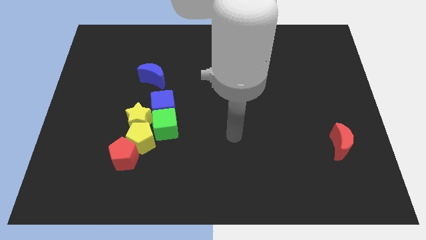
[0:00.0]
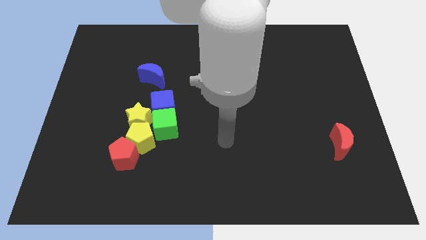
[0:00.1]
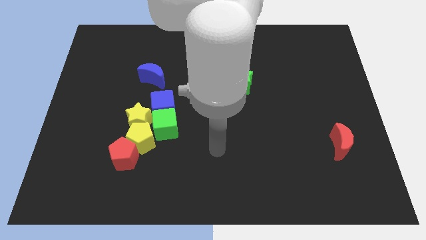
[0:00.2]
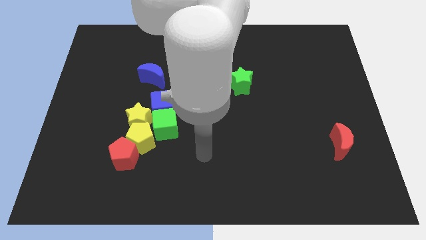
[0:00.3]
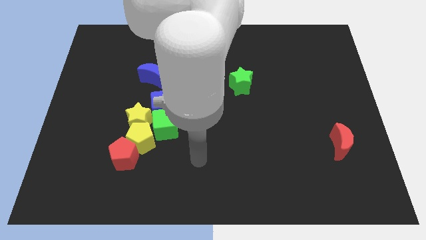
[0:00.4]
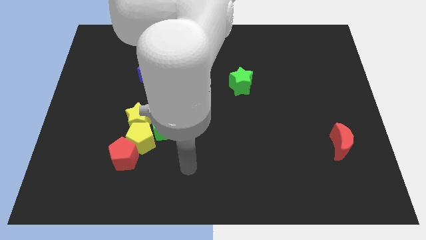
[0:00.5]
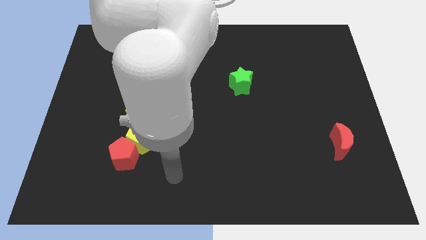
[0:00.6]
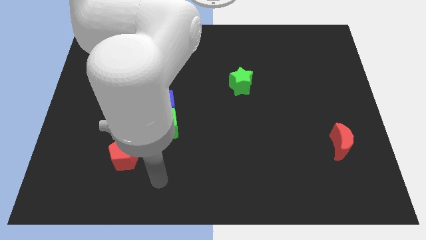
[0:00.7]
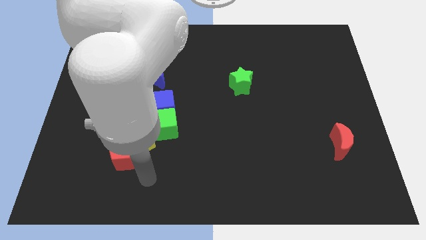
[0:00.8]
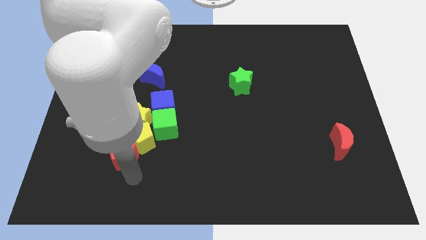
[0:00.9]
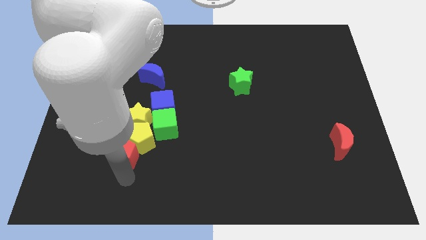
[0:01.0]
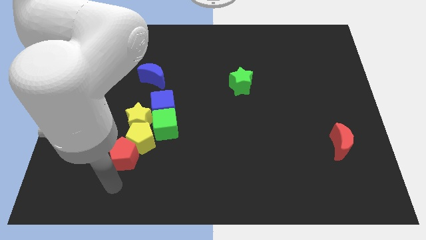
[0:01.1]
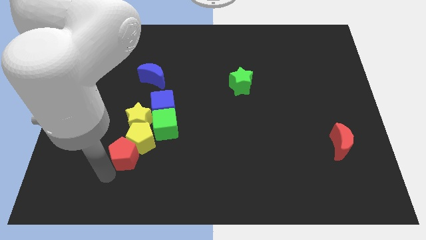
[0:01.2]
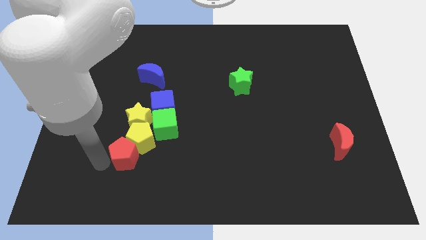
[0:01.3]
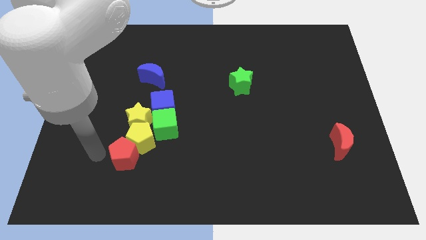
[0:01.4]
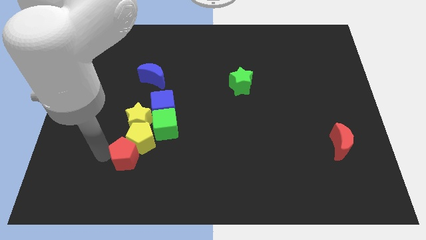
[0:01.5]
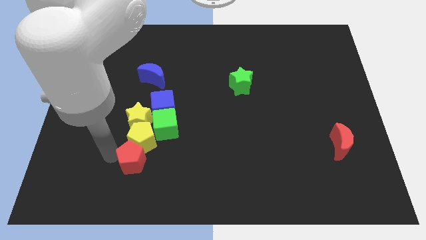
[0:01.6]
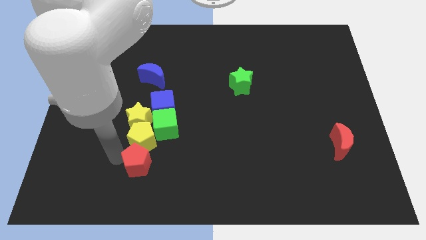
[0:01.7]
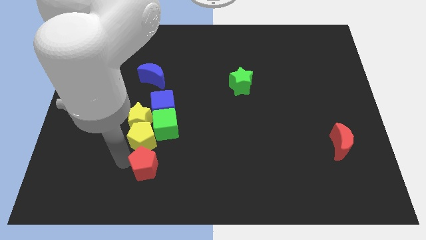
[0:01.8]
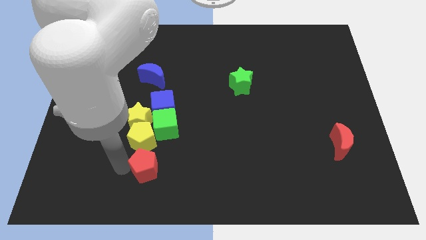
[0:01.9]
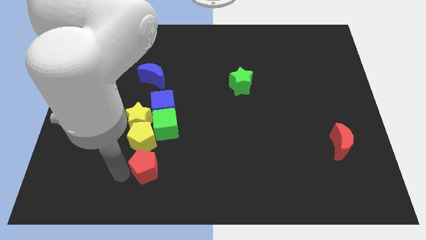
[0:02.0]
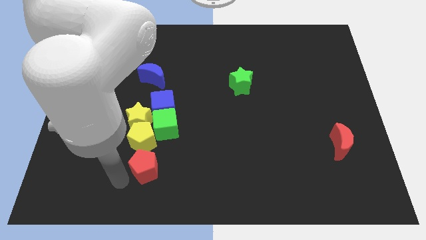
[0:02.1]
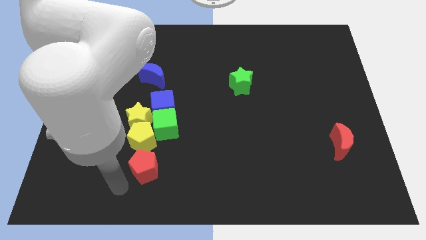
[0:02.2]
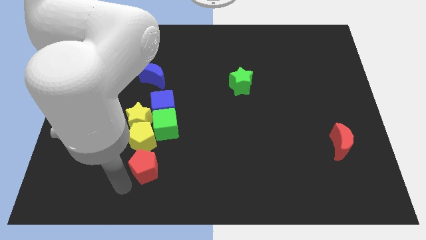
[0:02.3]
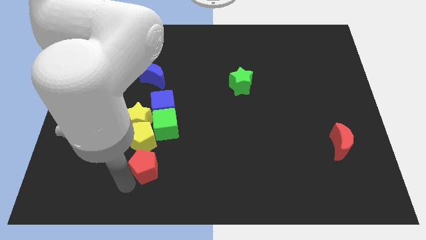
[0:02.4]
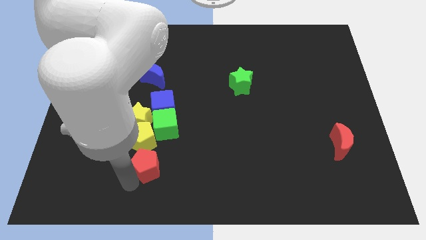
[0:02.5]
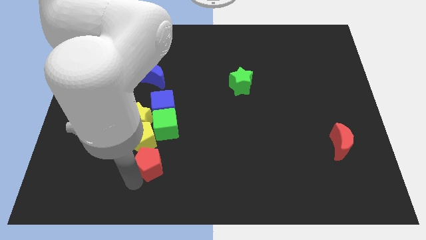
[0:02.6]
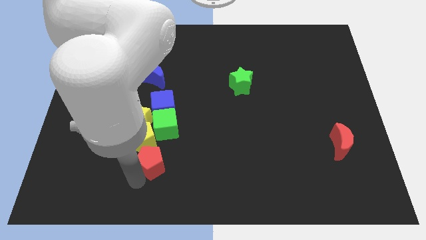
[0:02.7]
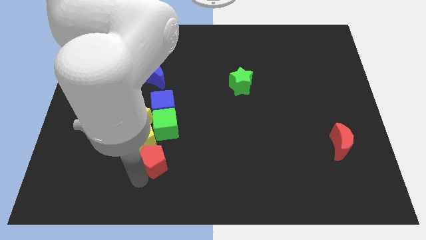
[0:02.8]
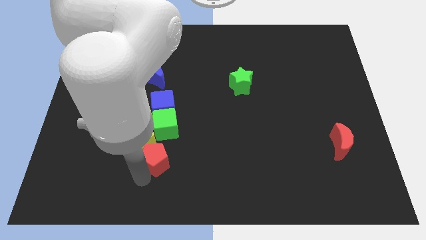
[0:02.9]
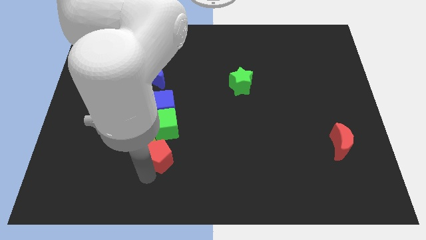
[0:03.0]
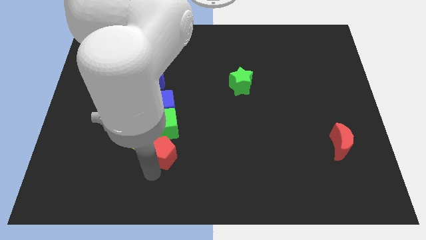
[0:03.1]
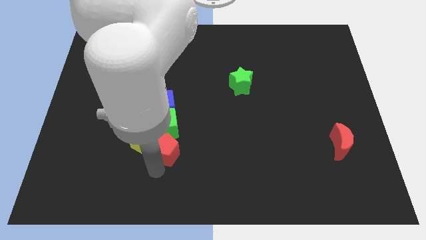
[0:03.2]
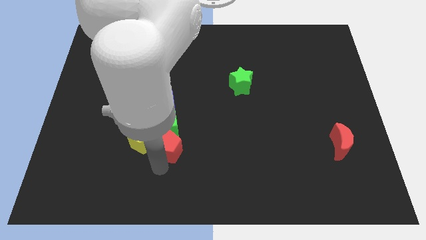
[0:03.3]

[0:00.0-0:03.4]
move the red pentagon up and to the right slightly

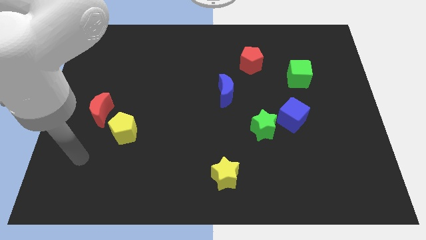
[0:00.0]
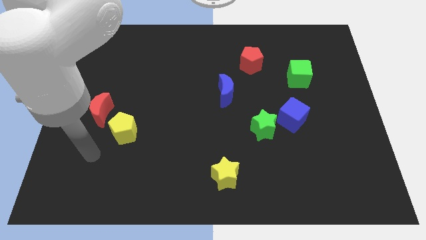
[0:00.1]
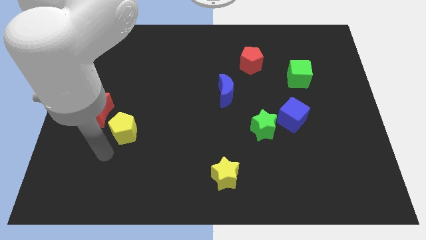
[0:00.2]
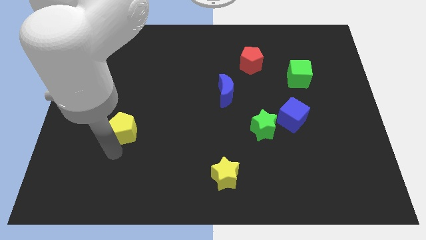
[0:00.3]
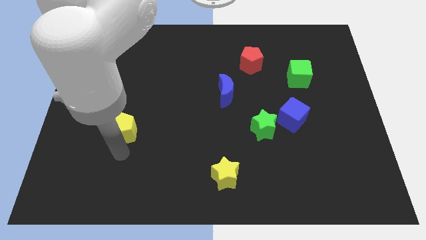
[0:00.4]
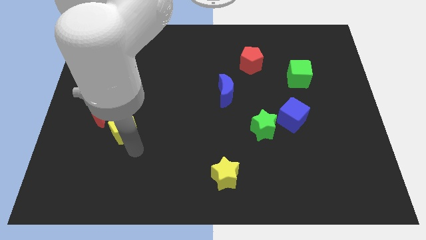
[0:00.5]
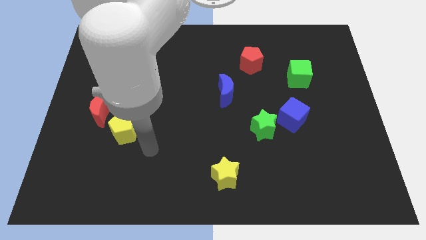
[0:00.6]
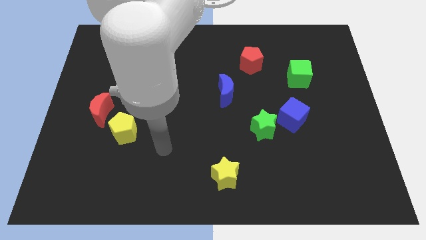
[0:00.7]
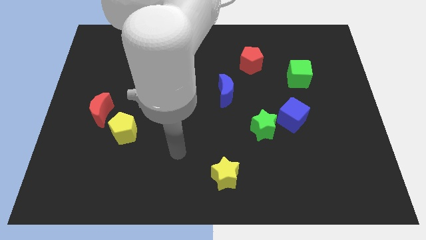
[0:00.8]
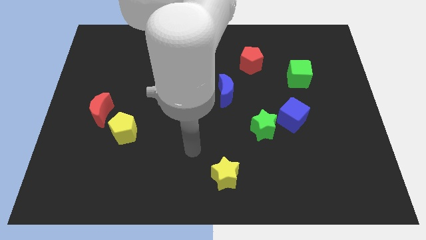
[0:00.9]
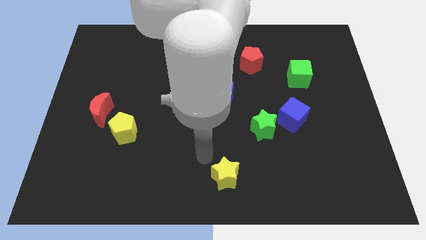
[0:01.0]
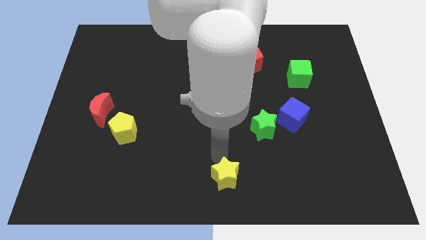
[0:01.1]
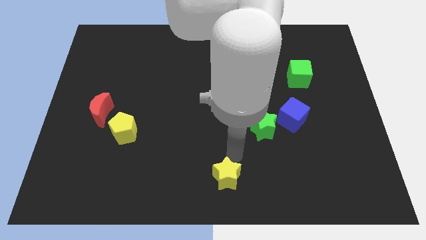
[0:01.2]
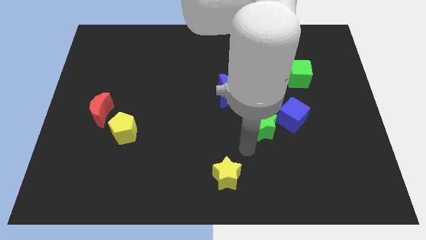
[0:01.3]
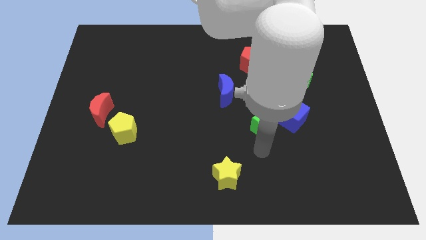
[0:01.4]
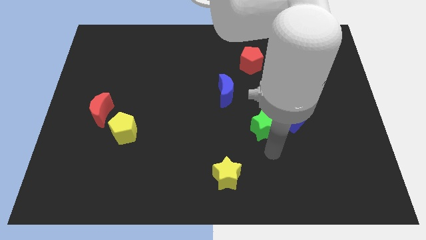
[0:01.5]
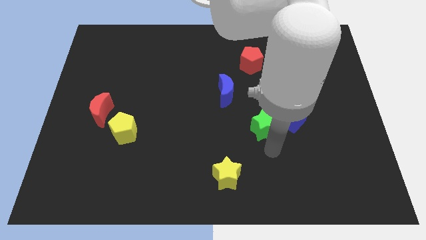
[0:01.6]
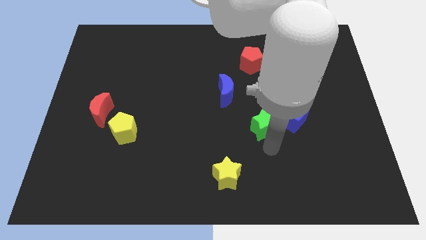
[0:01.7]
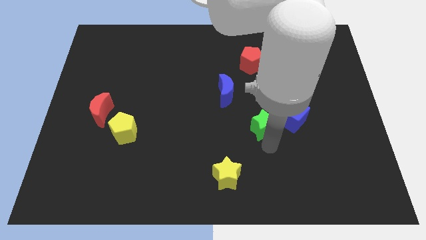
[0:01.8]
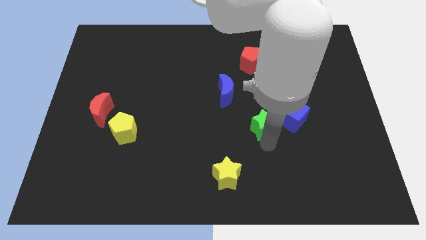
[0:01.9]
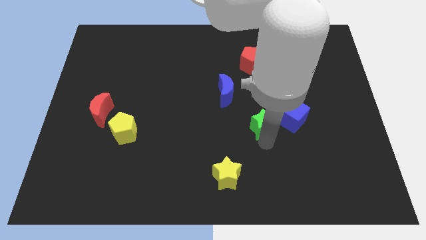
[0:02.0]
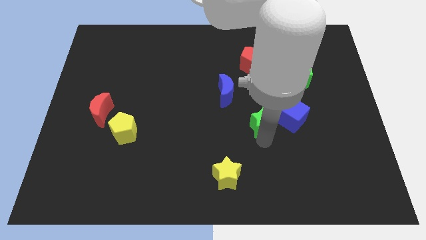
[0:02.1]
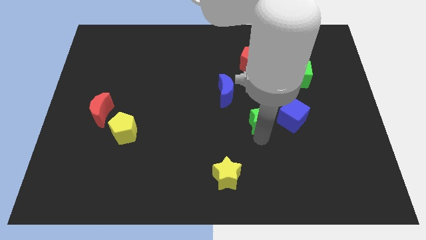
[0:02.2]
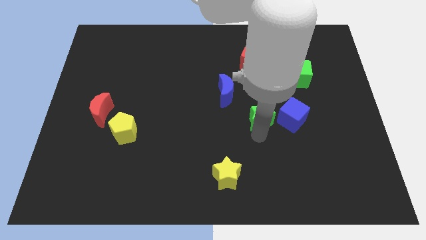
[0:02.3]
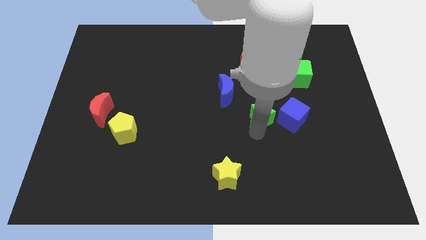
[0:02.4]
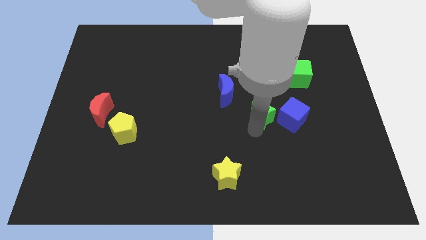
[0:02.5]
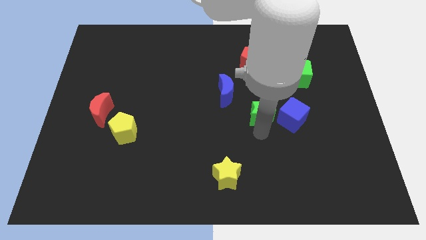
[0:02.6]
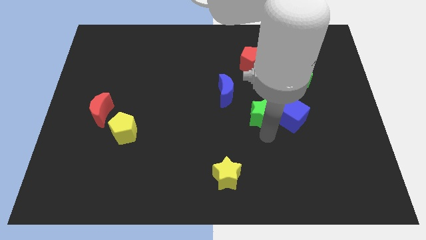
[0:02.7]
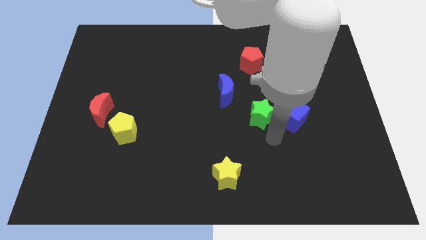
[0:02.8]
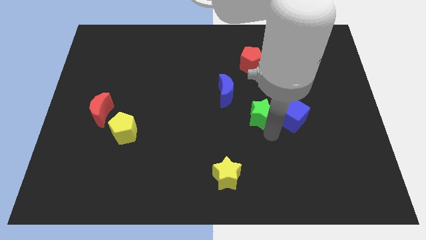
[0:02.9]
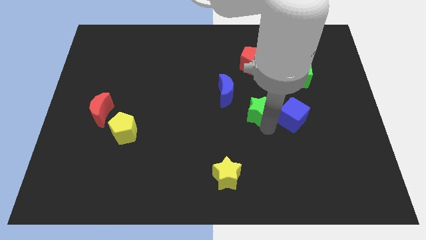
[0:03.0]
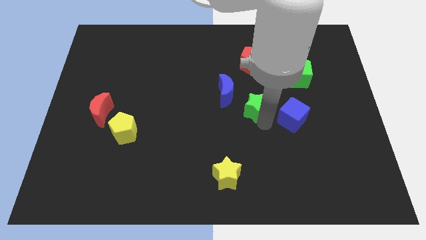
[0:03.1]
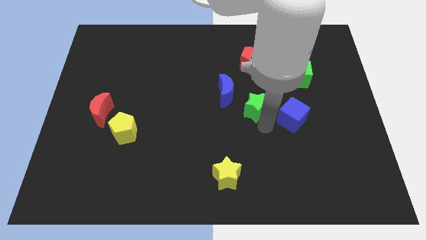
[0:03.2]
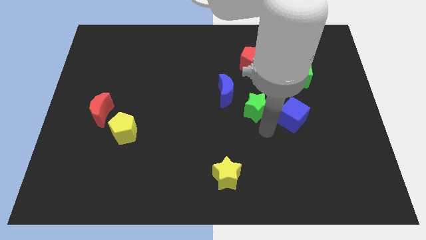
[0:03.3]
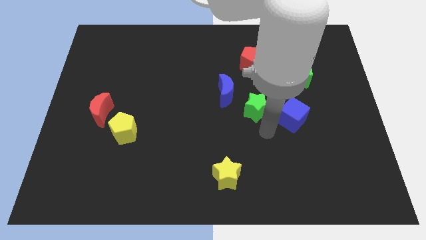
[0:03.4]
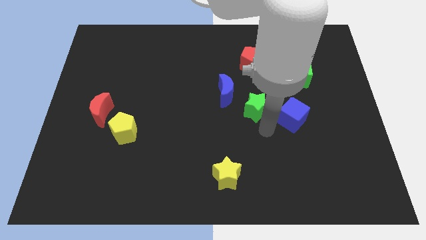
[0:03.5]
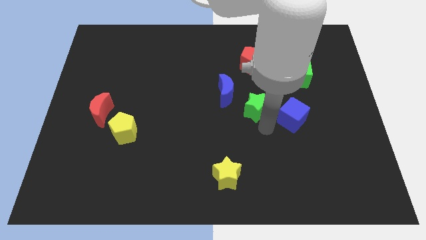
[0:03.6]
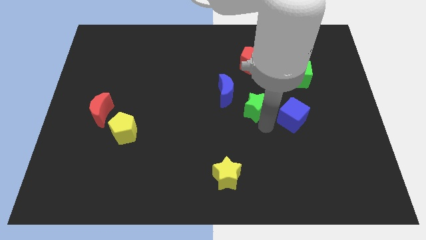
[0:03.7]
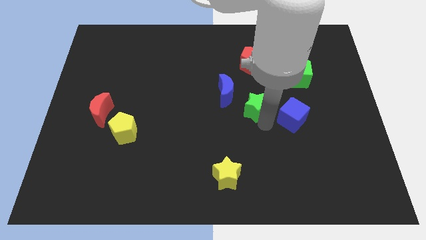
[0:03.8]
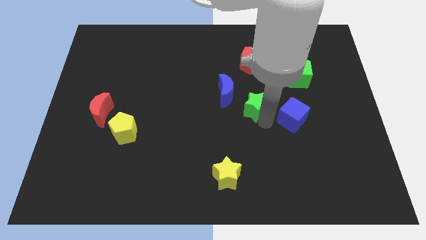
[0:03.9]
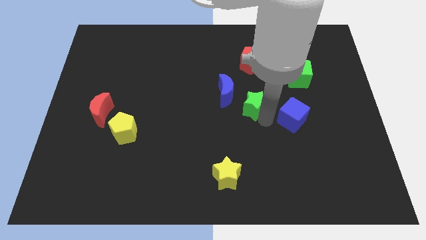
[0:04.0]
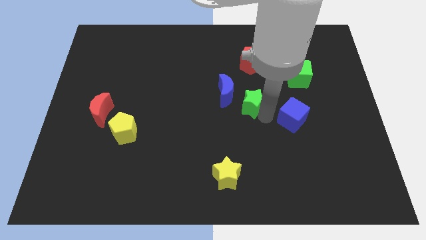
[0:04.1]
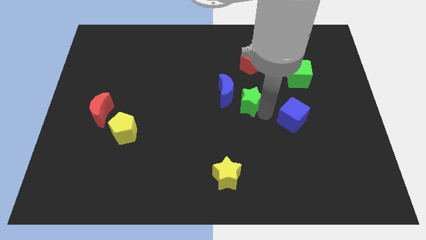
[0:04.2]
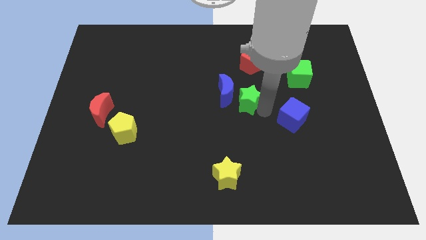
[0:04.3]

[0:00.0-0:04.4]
slightly slide the green star diagonally up and to the left

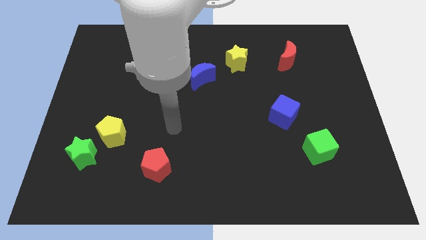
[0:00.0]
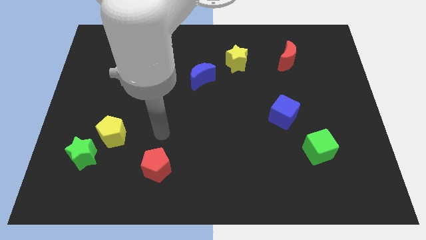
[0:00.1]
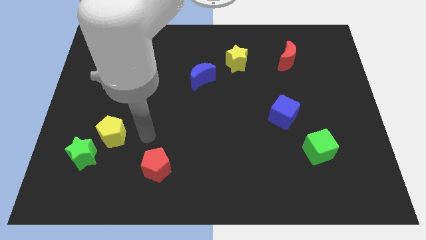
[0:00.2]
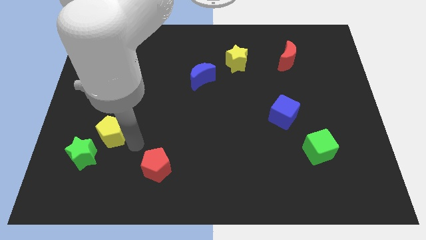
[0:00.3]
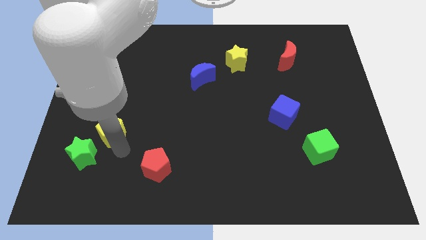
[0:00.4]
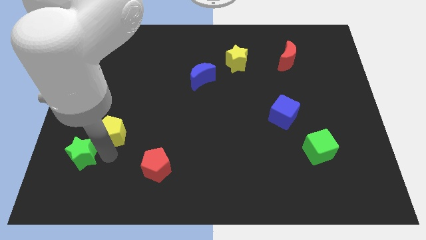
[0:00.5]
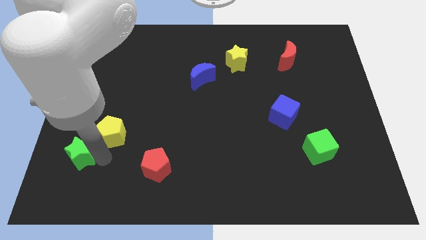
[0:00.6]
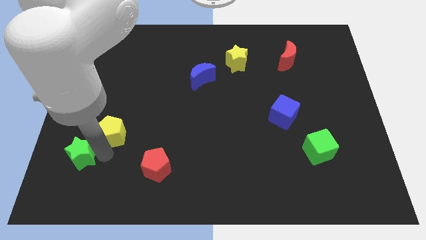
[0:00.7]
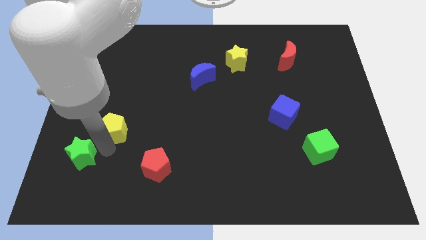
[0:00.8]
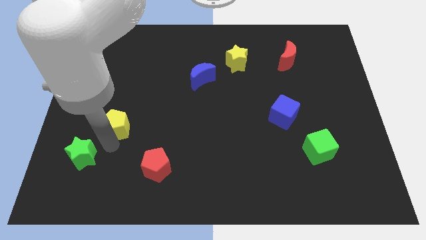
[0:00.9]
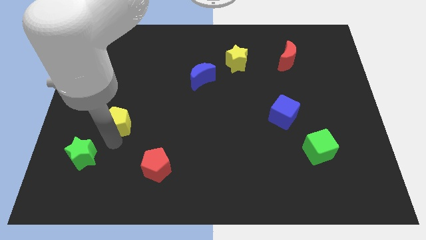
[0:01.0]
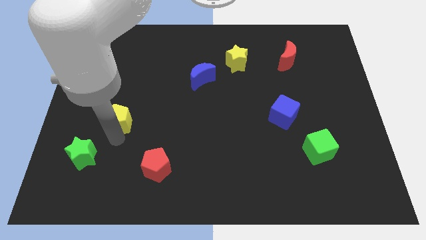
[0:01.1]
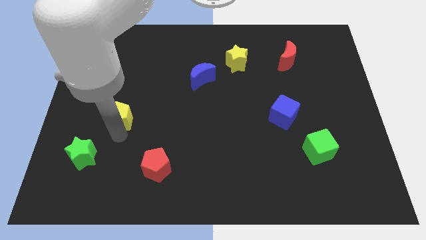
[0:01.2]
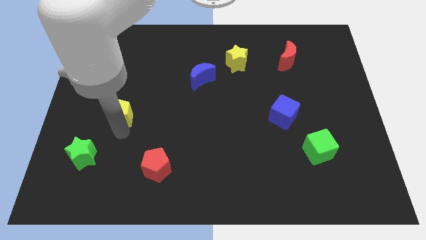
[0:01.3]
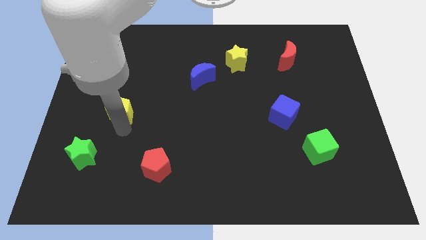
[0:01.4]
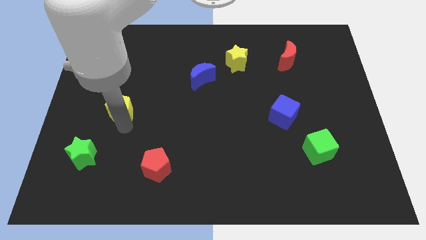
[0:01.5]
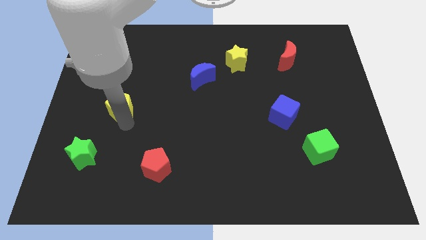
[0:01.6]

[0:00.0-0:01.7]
move the yellow pentagon a little bit up
